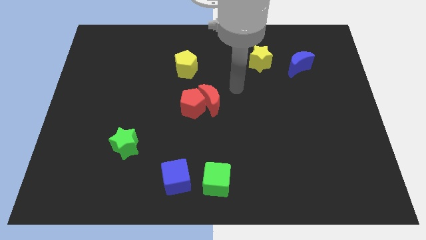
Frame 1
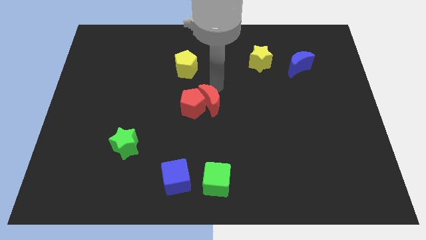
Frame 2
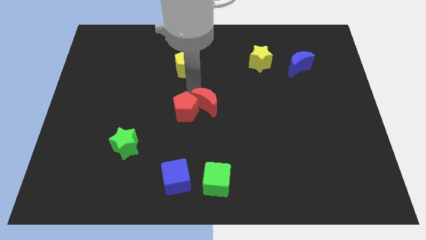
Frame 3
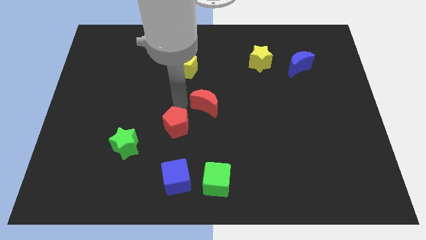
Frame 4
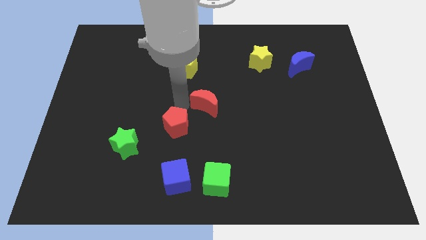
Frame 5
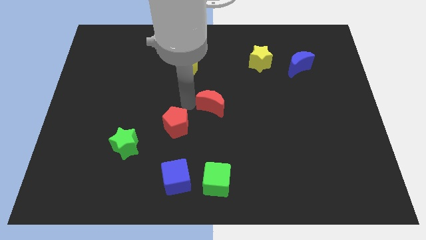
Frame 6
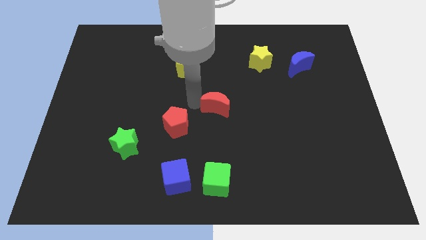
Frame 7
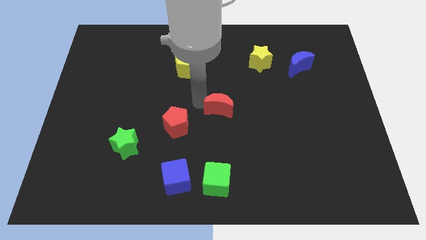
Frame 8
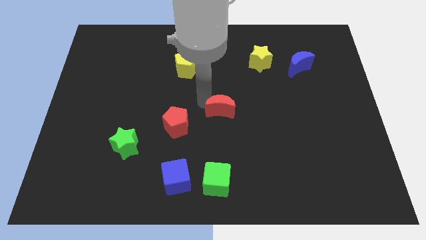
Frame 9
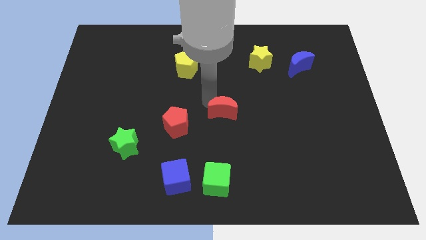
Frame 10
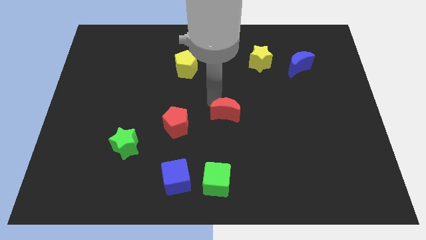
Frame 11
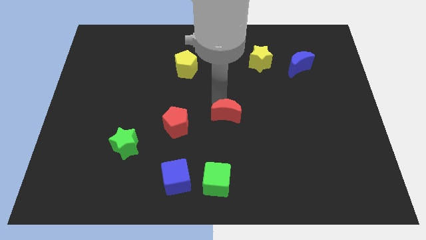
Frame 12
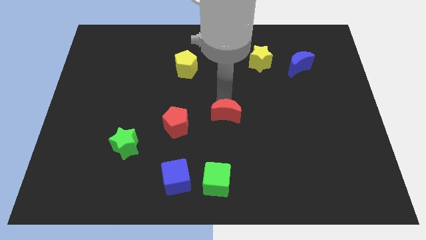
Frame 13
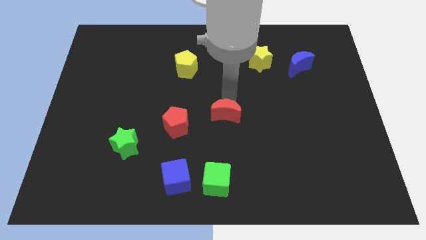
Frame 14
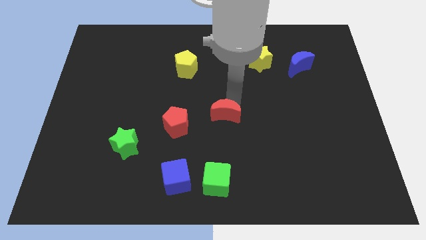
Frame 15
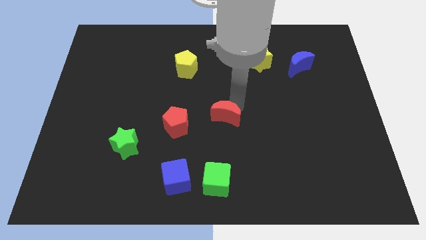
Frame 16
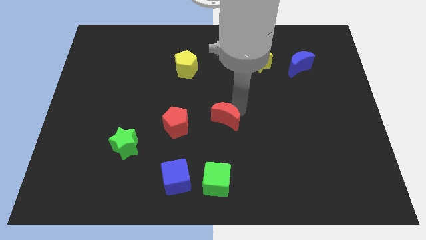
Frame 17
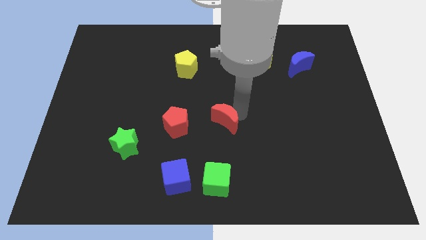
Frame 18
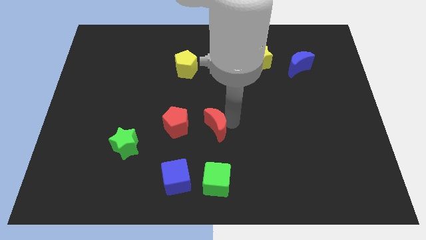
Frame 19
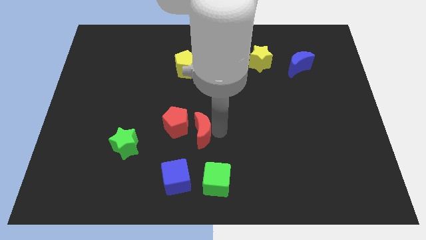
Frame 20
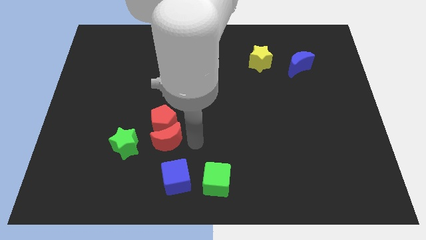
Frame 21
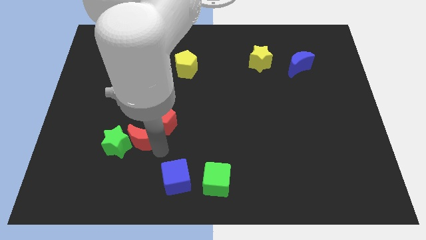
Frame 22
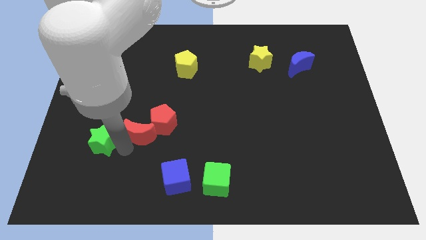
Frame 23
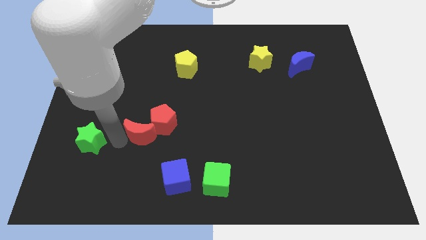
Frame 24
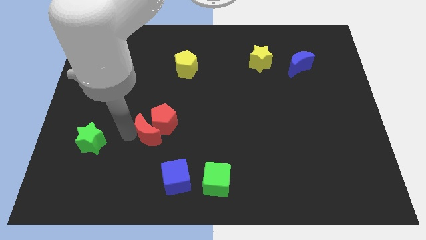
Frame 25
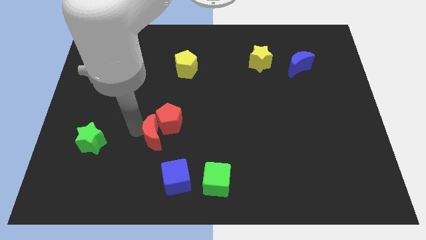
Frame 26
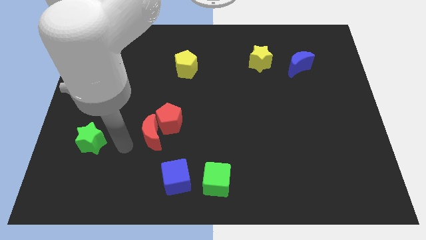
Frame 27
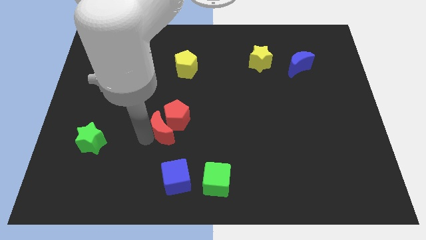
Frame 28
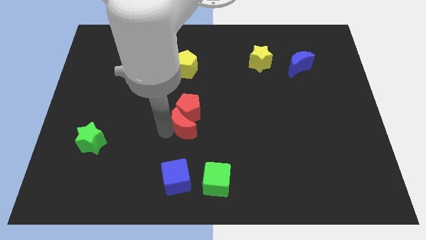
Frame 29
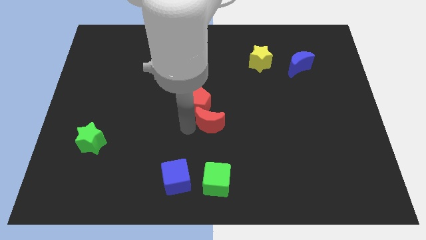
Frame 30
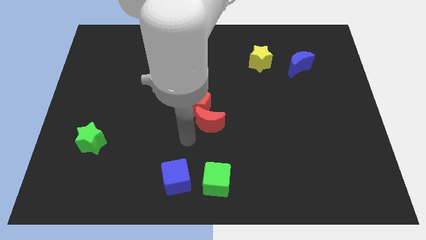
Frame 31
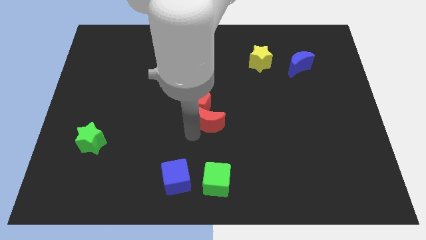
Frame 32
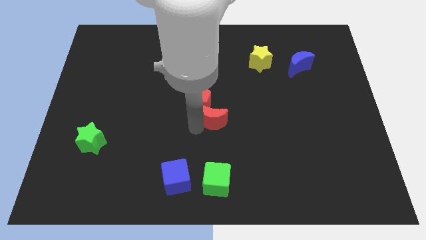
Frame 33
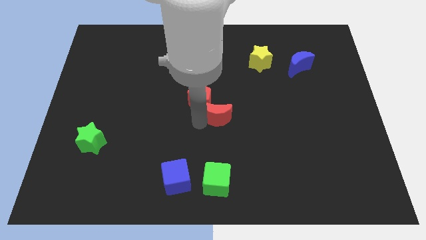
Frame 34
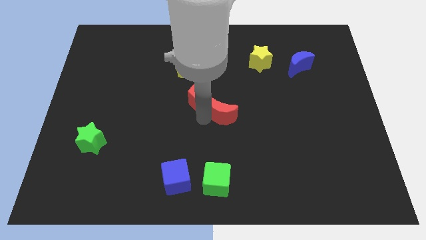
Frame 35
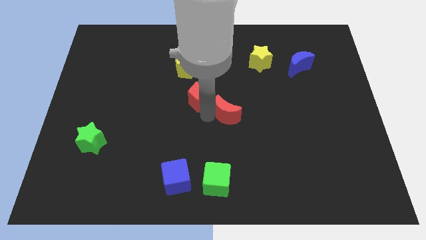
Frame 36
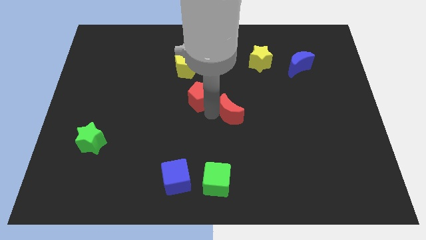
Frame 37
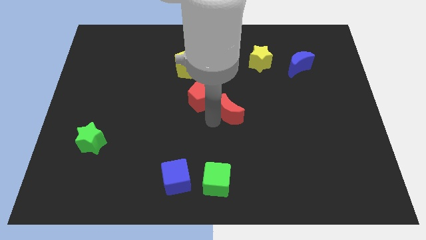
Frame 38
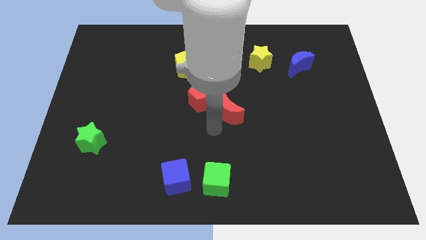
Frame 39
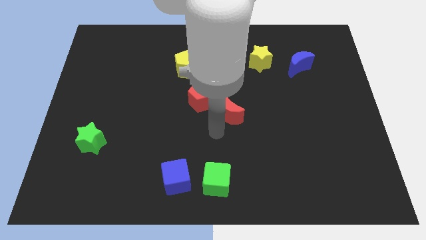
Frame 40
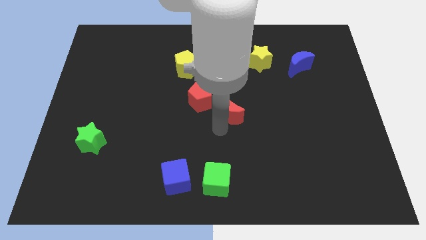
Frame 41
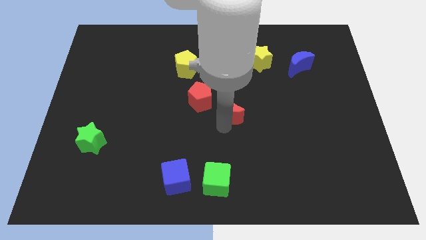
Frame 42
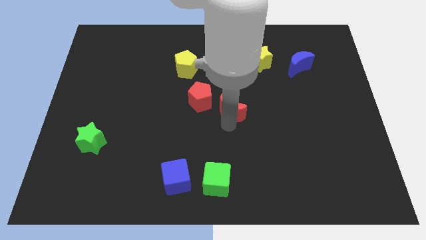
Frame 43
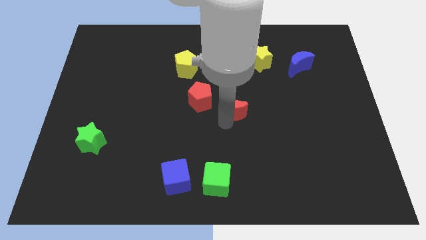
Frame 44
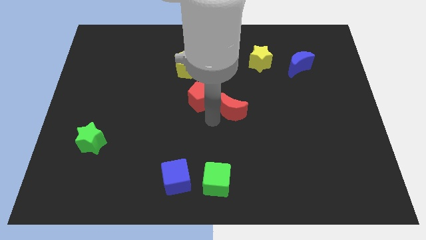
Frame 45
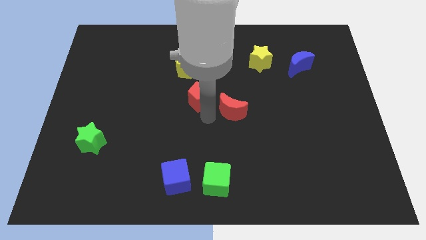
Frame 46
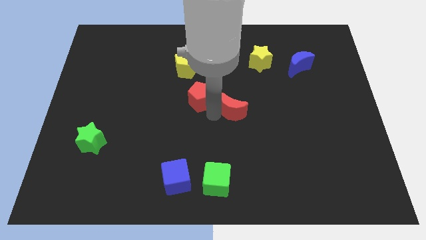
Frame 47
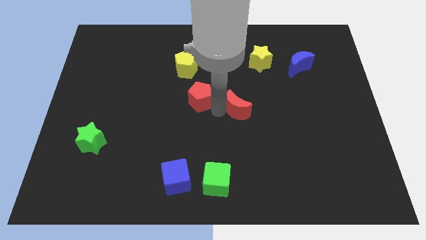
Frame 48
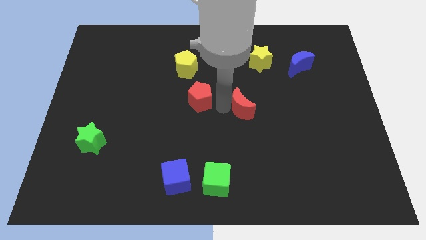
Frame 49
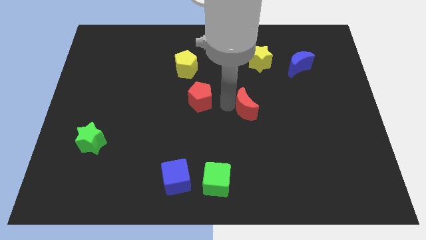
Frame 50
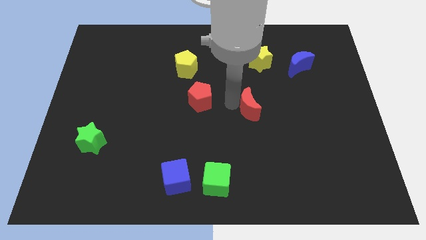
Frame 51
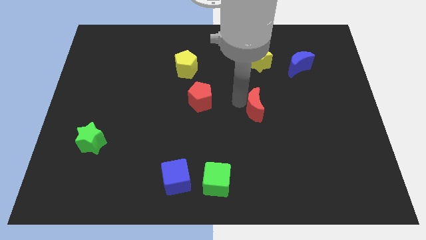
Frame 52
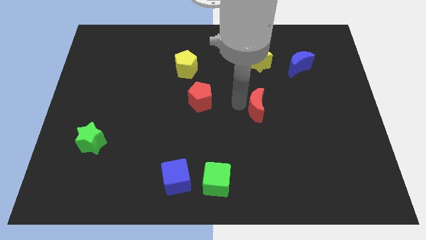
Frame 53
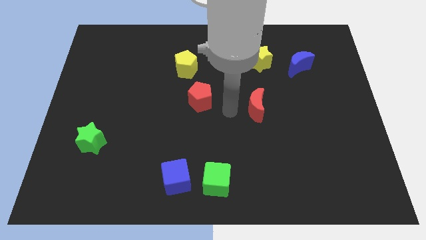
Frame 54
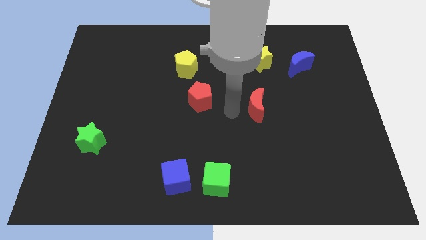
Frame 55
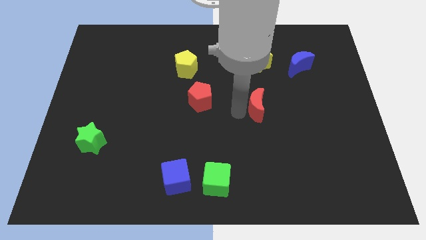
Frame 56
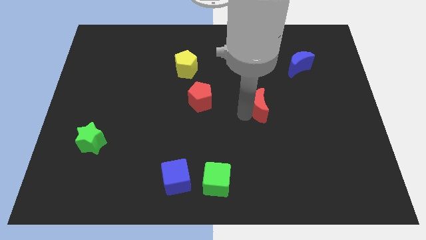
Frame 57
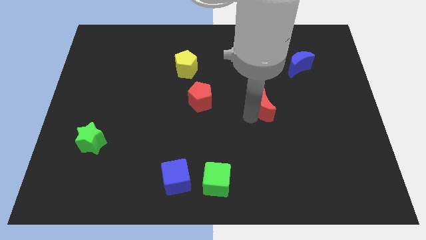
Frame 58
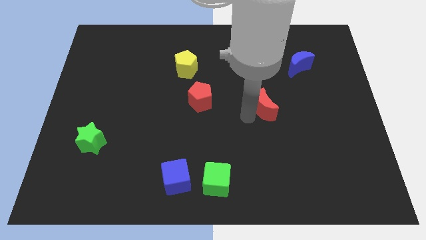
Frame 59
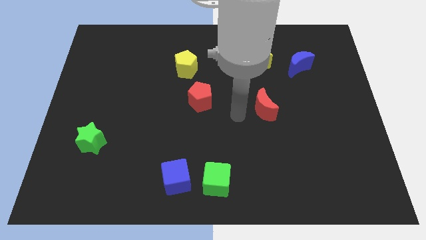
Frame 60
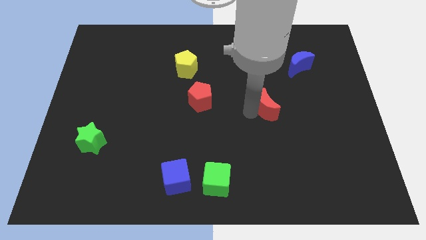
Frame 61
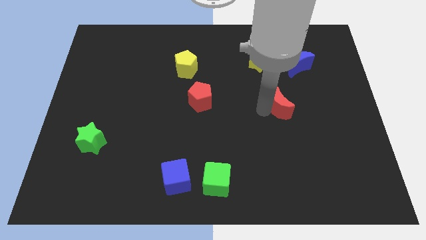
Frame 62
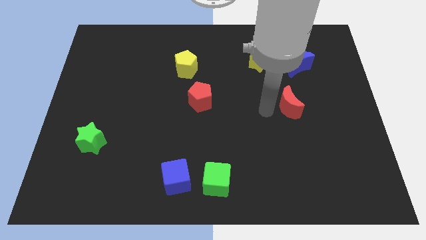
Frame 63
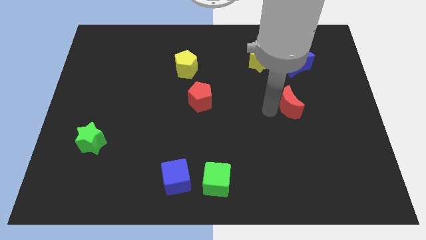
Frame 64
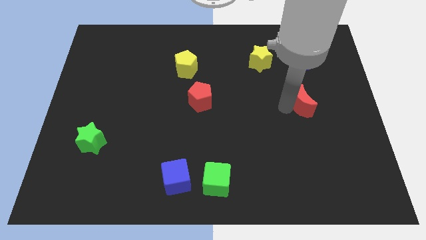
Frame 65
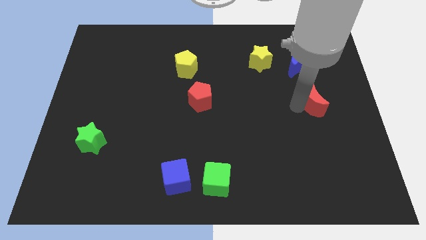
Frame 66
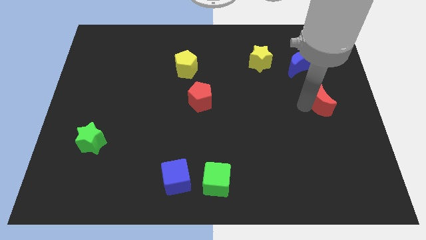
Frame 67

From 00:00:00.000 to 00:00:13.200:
slide the red moon to the right side
